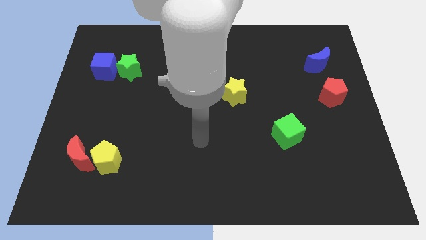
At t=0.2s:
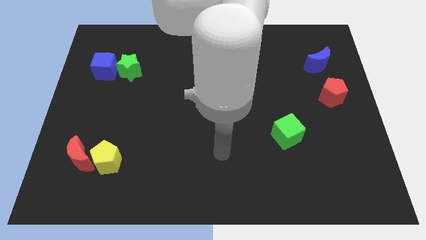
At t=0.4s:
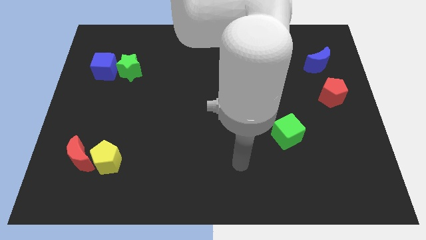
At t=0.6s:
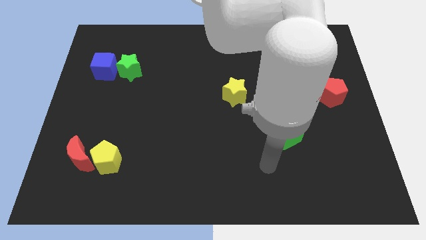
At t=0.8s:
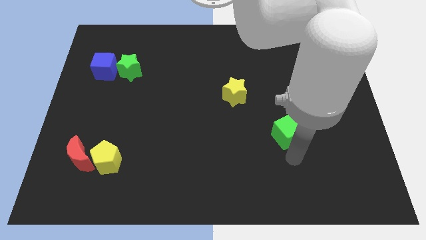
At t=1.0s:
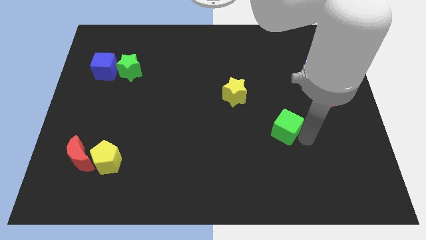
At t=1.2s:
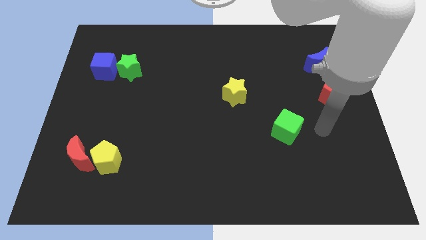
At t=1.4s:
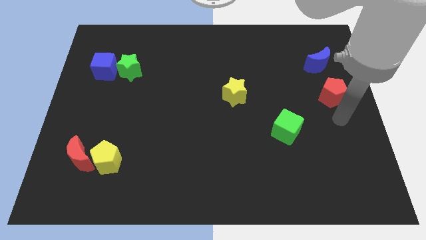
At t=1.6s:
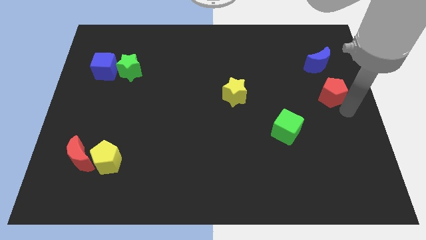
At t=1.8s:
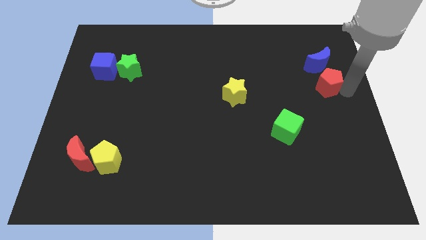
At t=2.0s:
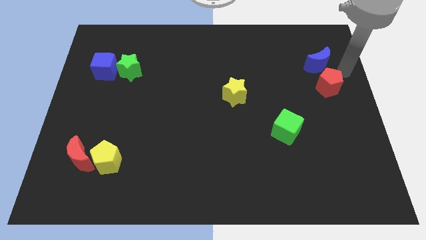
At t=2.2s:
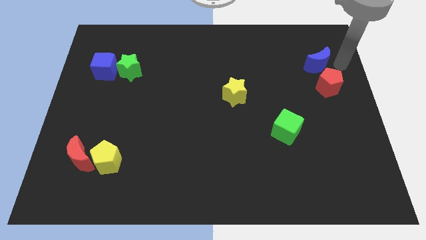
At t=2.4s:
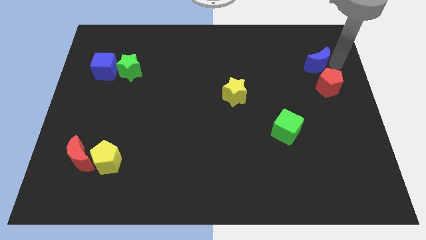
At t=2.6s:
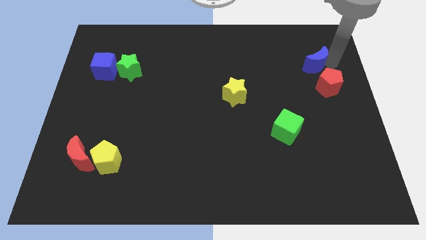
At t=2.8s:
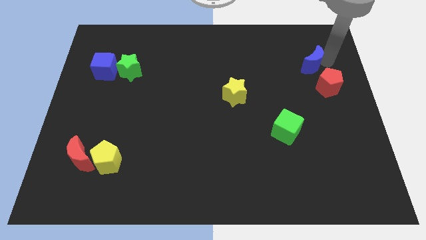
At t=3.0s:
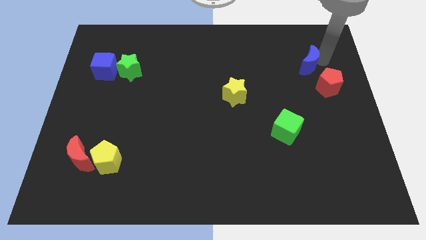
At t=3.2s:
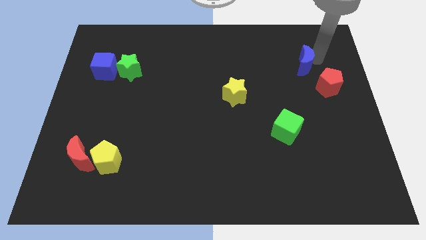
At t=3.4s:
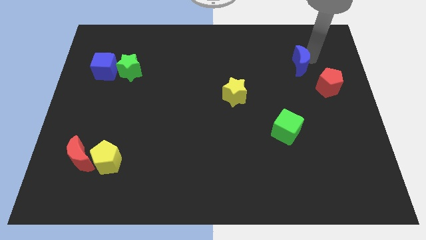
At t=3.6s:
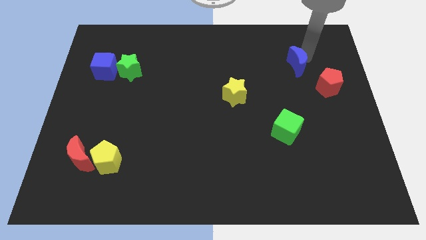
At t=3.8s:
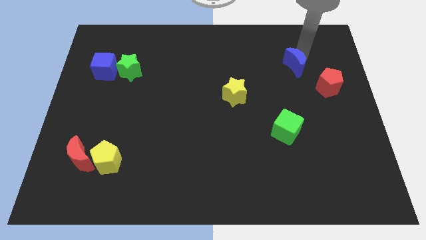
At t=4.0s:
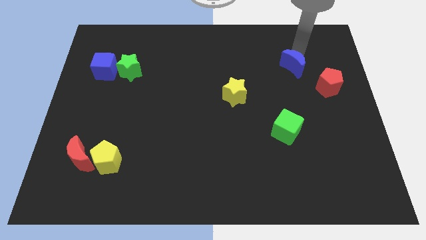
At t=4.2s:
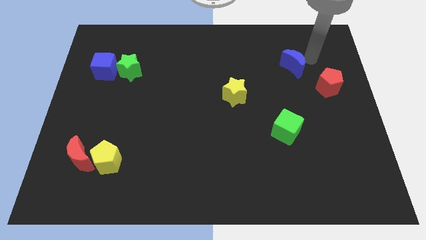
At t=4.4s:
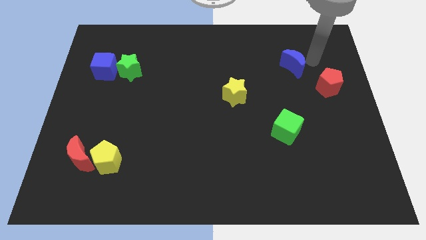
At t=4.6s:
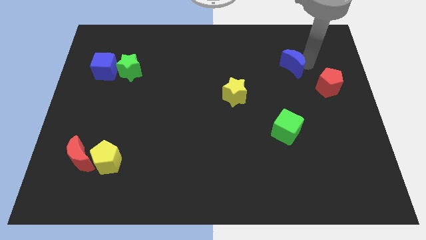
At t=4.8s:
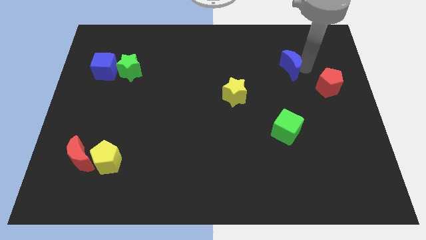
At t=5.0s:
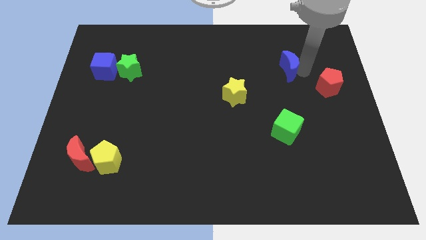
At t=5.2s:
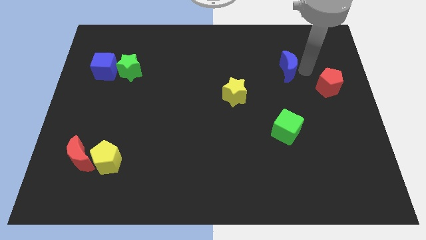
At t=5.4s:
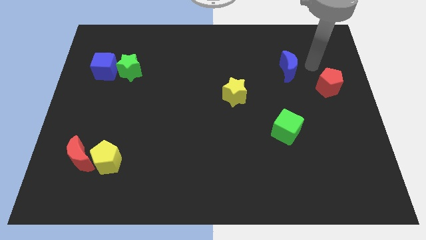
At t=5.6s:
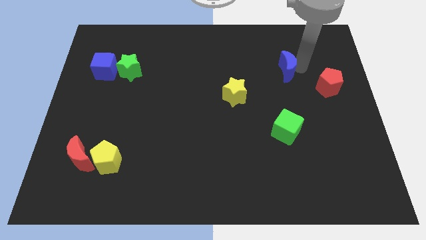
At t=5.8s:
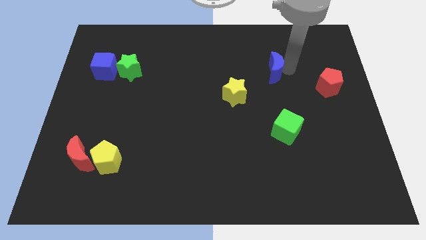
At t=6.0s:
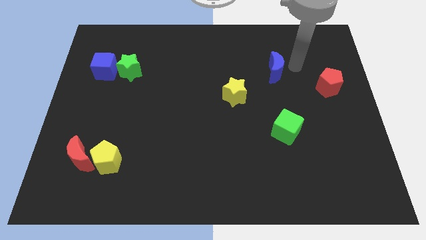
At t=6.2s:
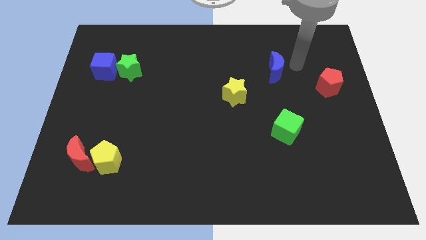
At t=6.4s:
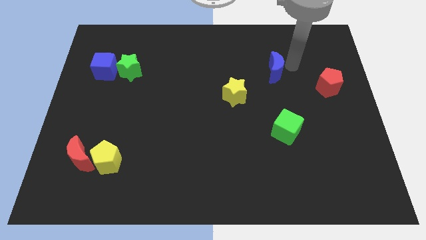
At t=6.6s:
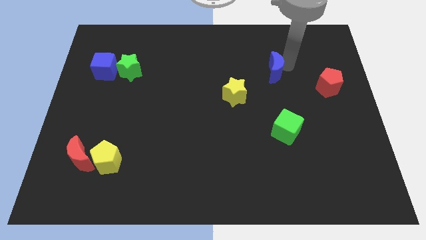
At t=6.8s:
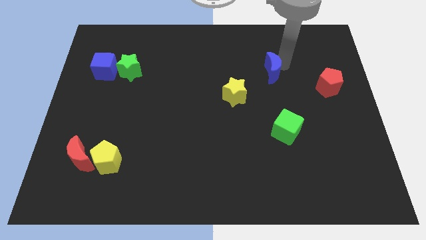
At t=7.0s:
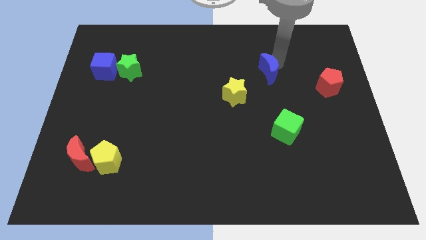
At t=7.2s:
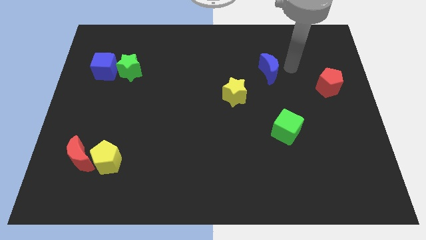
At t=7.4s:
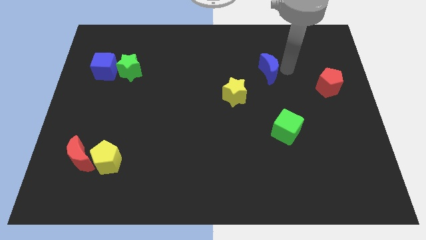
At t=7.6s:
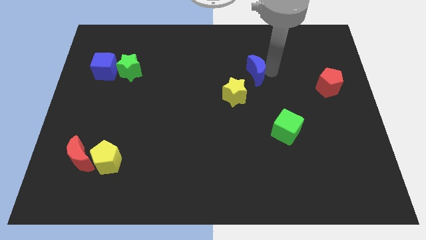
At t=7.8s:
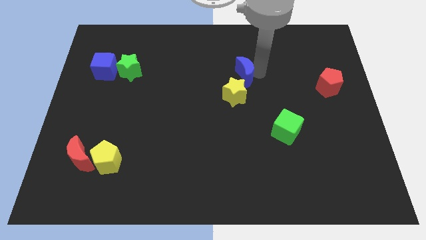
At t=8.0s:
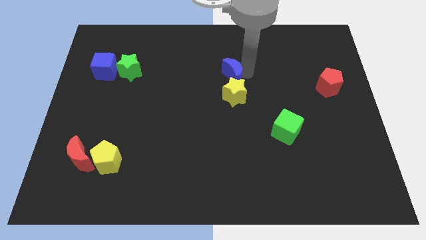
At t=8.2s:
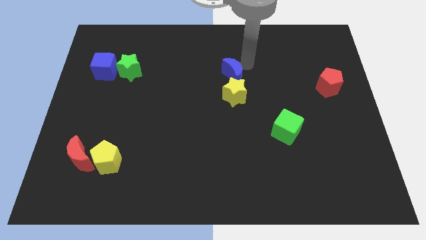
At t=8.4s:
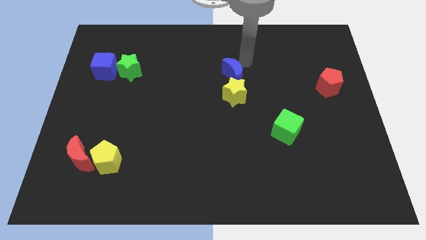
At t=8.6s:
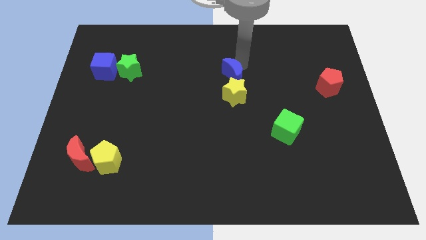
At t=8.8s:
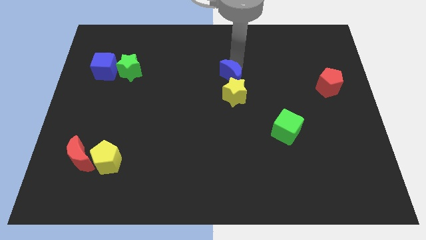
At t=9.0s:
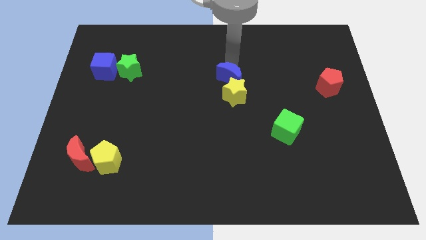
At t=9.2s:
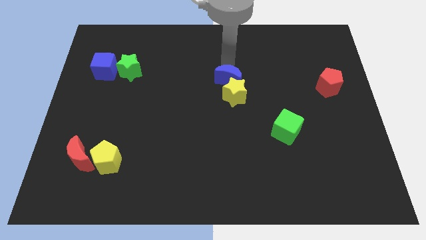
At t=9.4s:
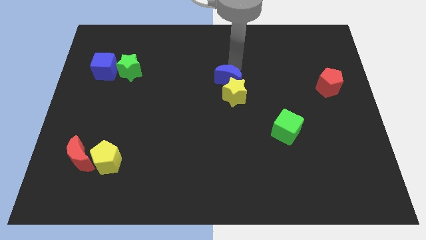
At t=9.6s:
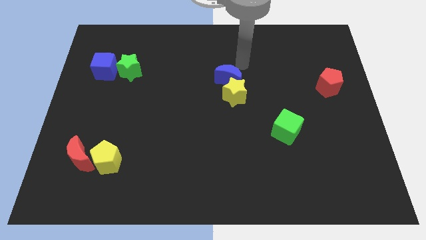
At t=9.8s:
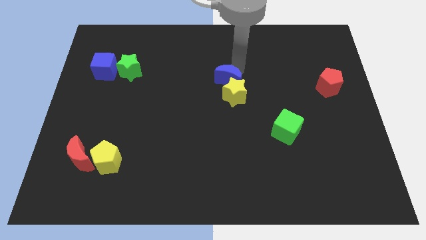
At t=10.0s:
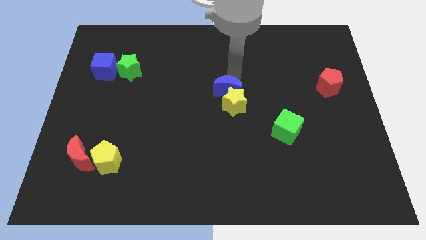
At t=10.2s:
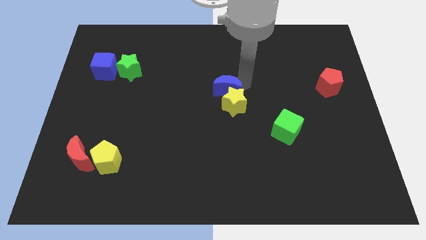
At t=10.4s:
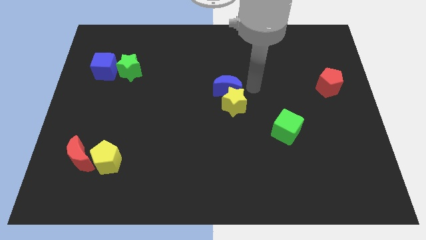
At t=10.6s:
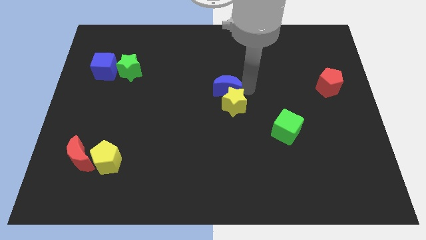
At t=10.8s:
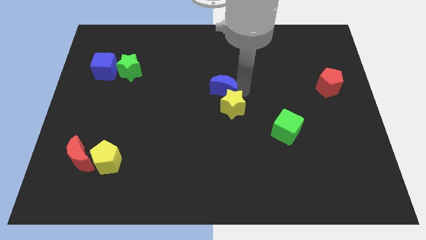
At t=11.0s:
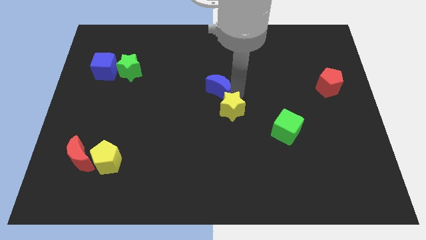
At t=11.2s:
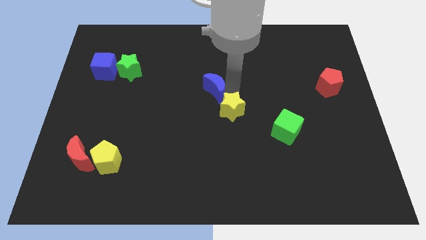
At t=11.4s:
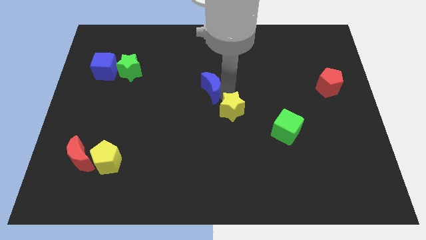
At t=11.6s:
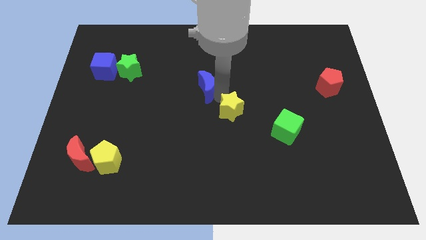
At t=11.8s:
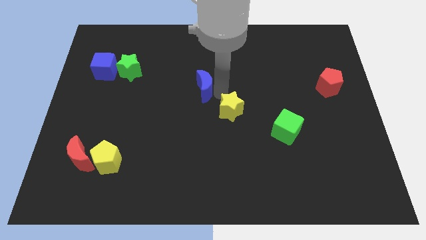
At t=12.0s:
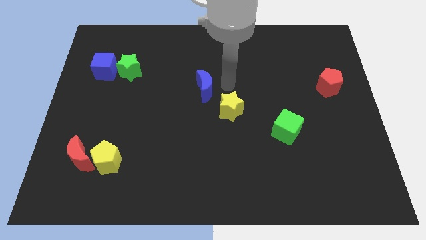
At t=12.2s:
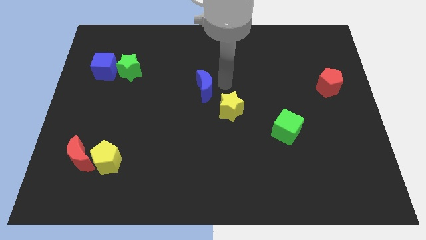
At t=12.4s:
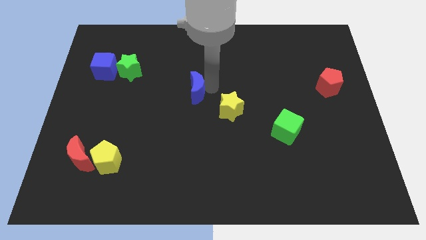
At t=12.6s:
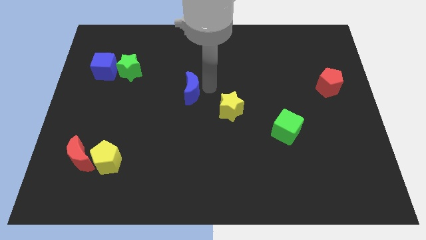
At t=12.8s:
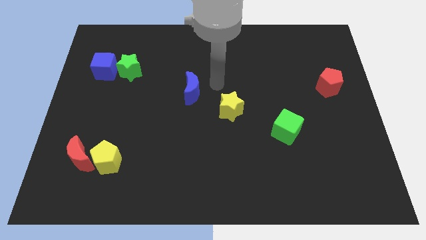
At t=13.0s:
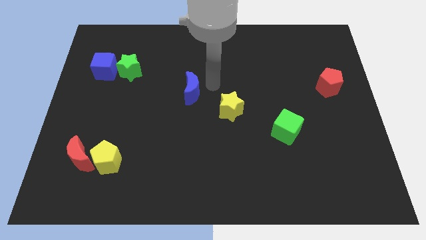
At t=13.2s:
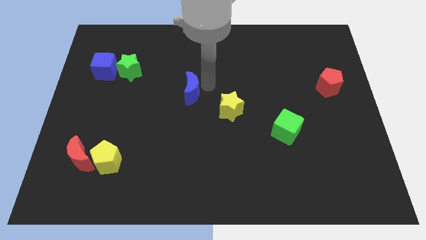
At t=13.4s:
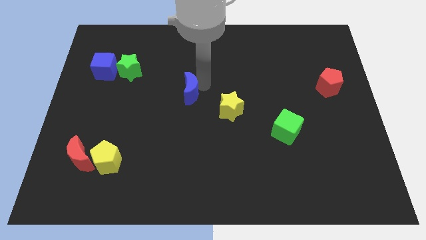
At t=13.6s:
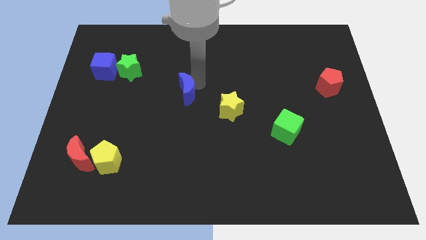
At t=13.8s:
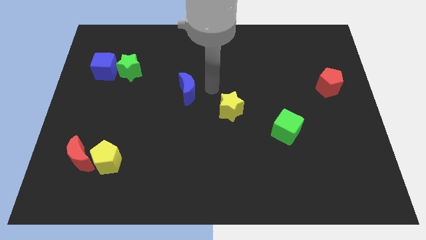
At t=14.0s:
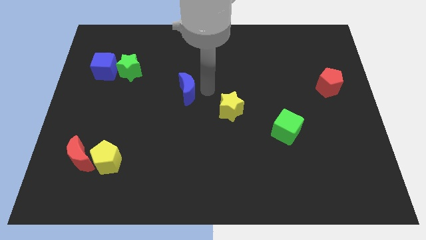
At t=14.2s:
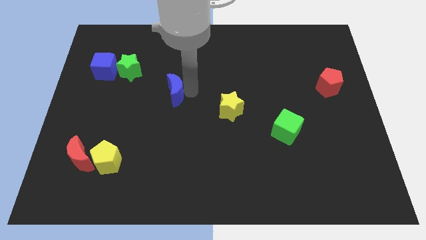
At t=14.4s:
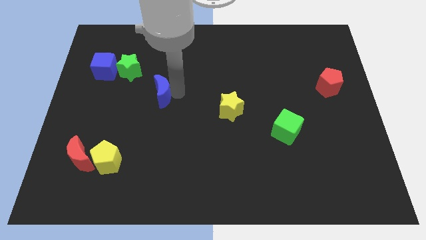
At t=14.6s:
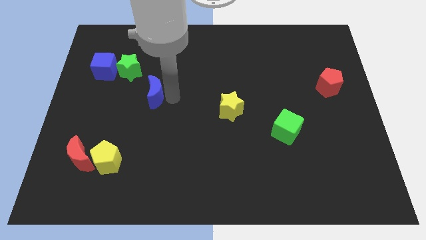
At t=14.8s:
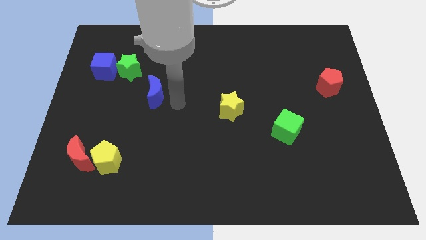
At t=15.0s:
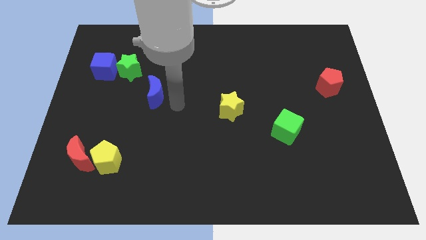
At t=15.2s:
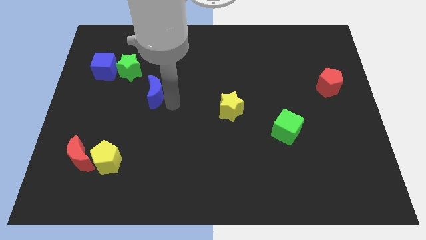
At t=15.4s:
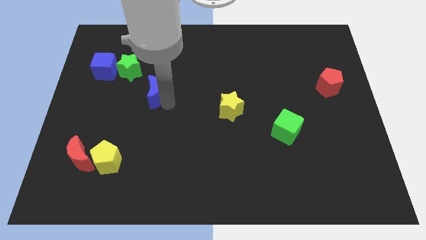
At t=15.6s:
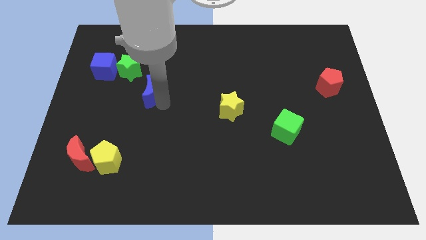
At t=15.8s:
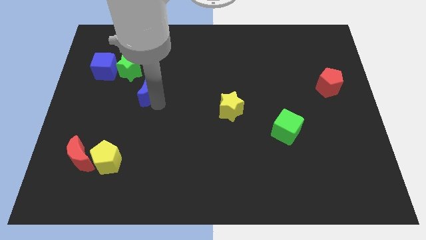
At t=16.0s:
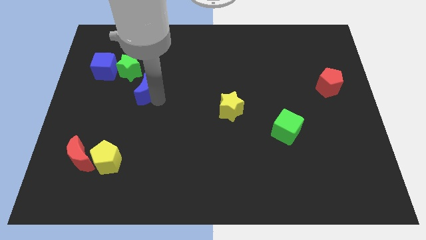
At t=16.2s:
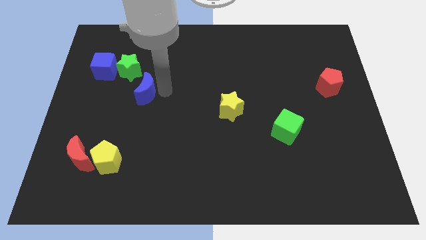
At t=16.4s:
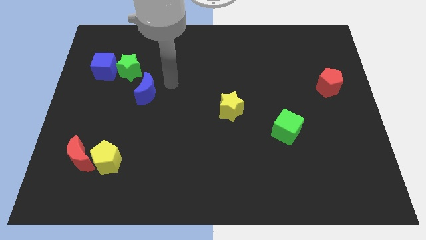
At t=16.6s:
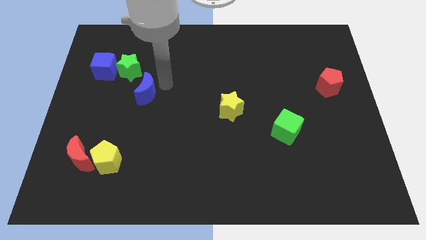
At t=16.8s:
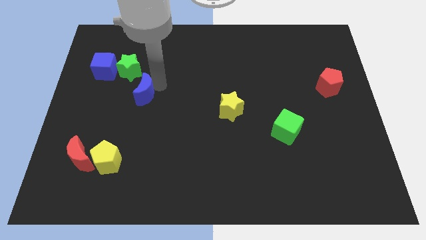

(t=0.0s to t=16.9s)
push the blue moon below the green star
